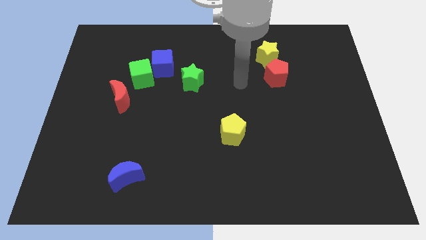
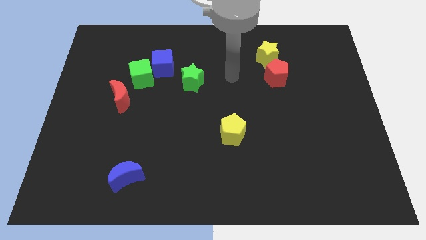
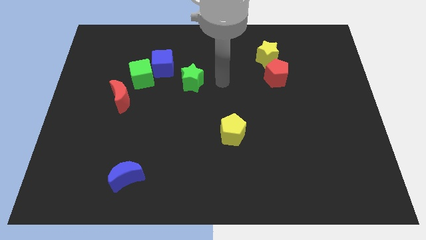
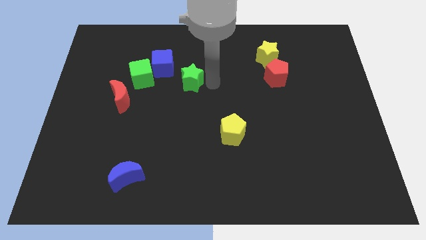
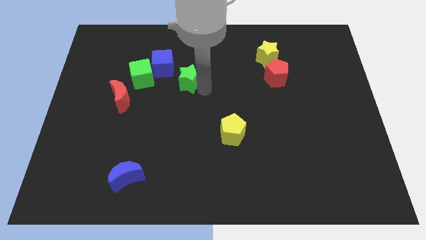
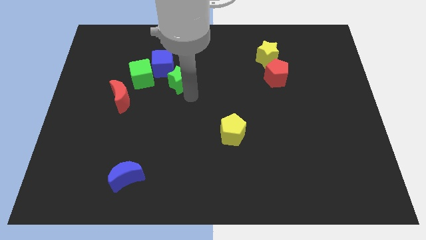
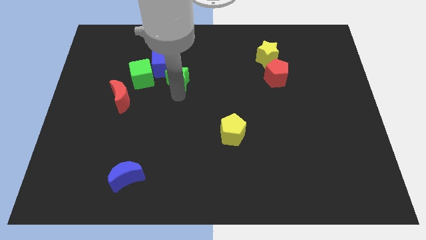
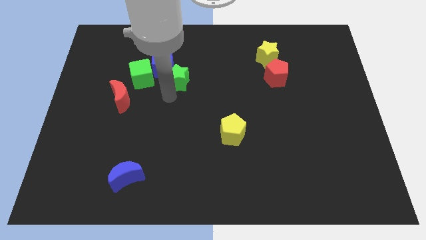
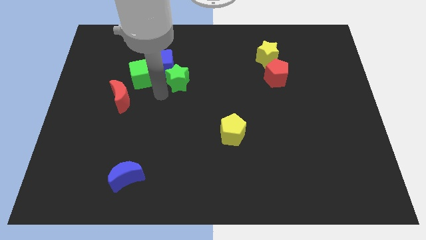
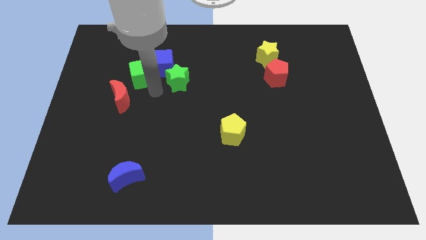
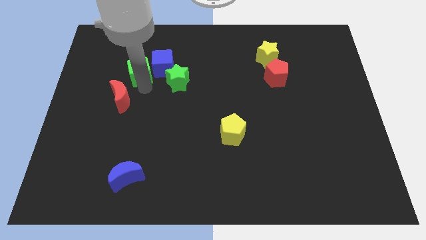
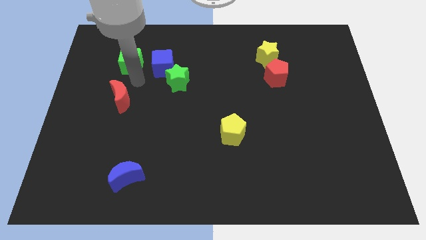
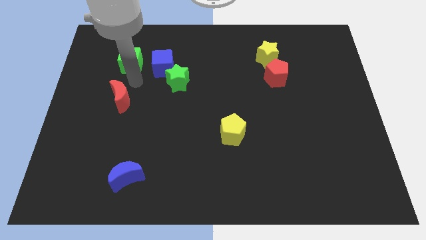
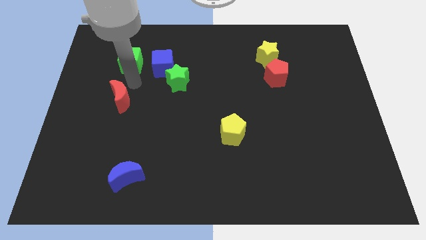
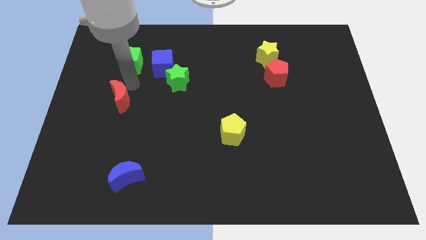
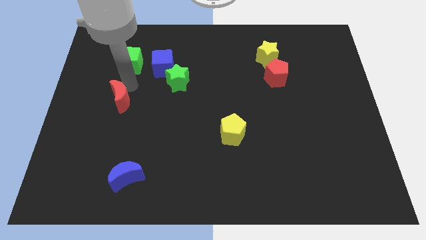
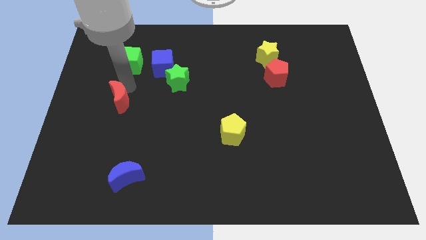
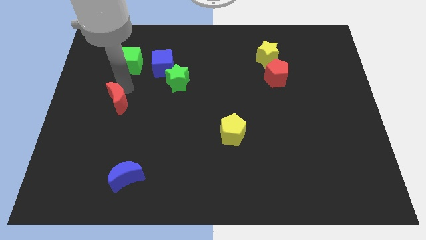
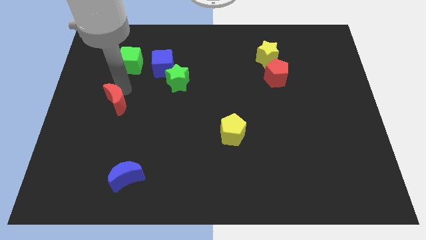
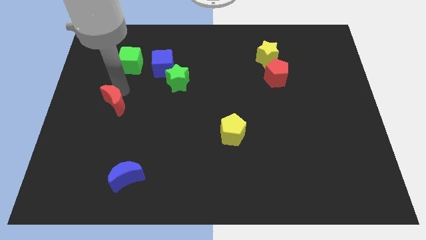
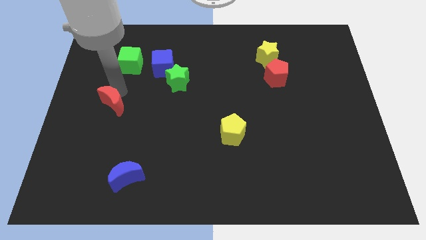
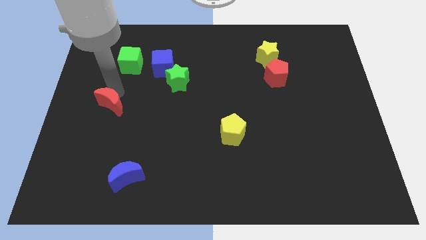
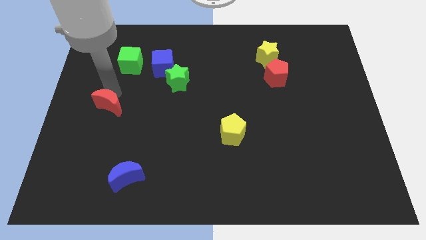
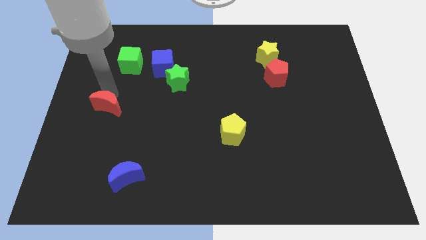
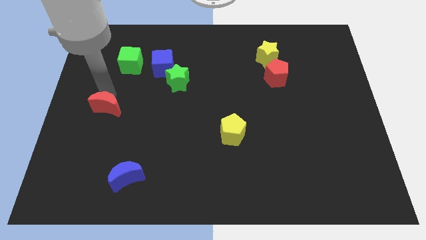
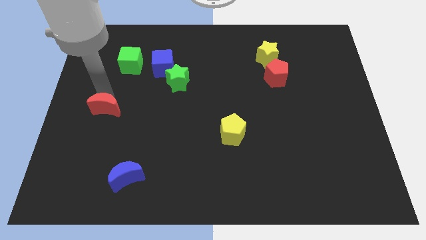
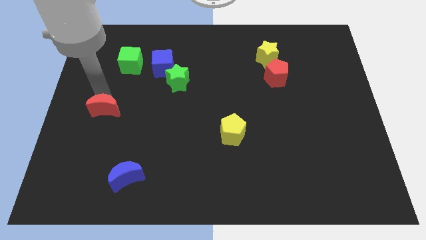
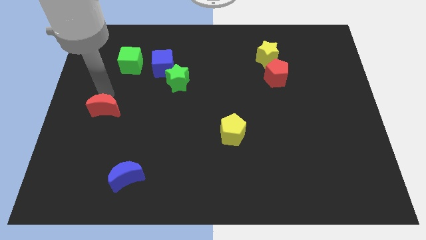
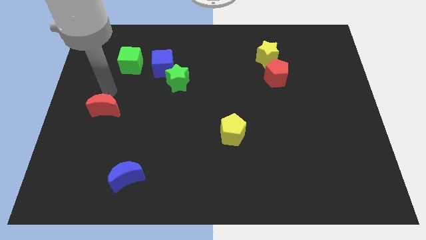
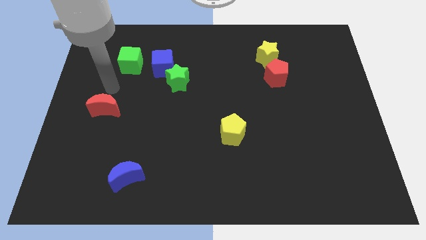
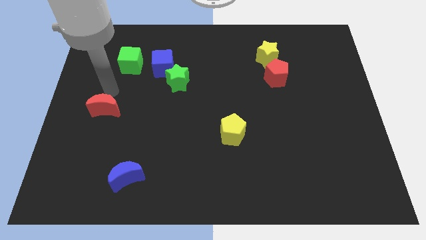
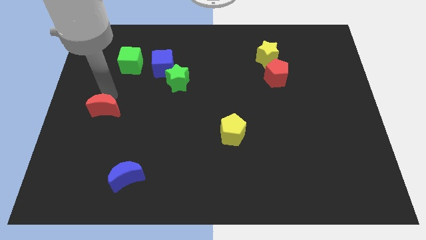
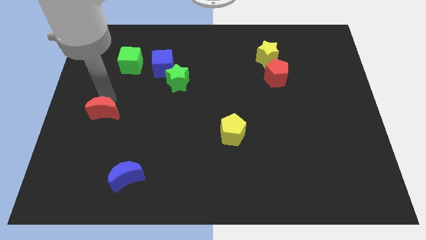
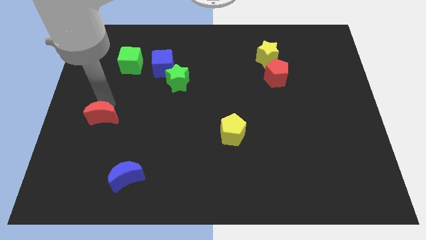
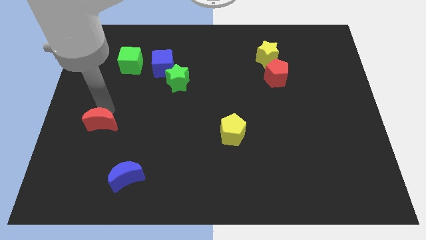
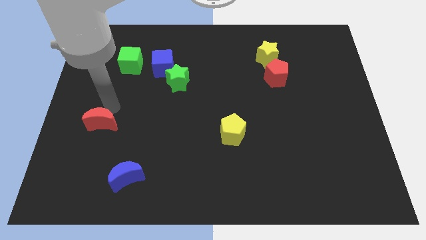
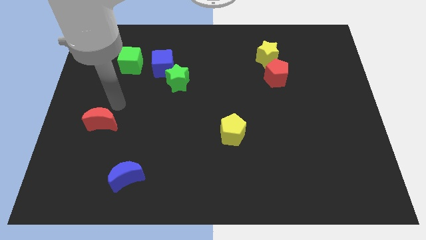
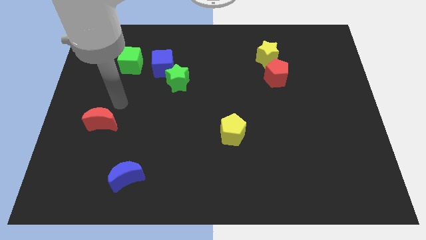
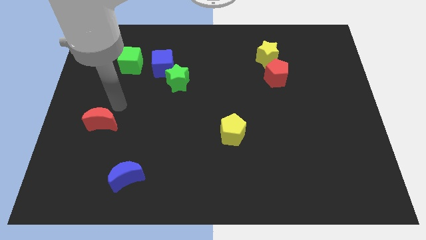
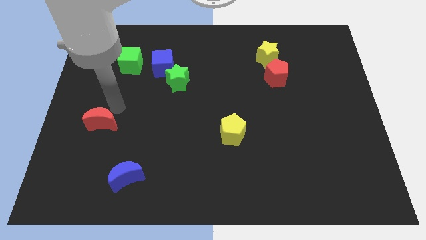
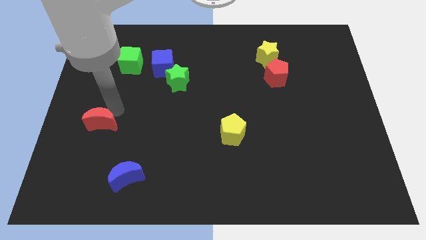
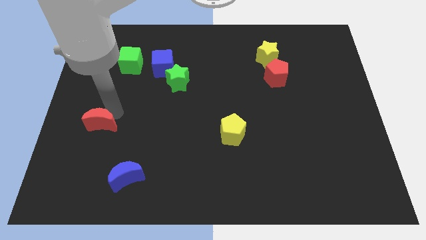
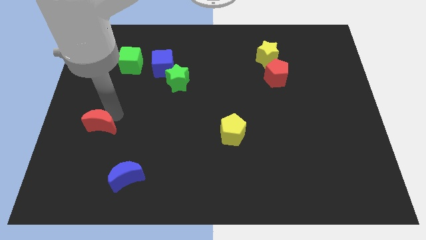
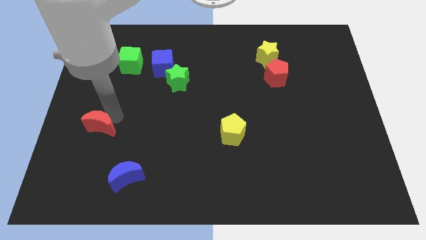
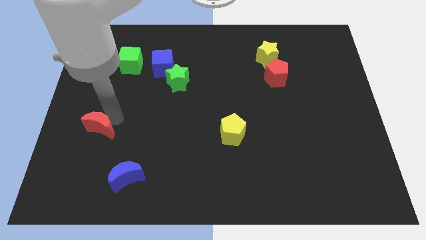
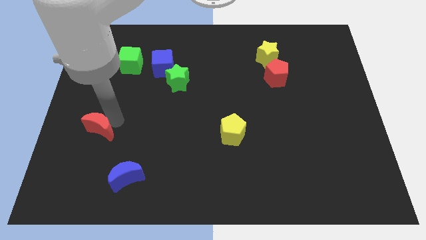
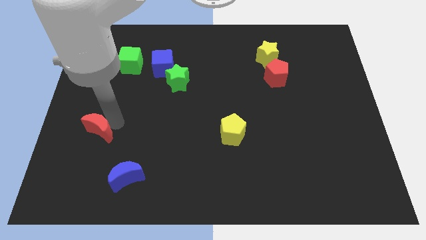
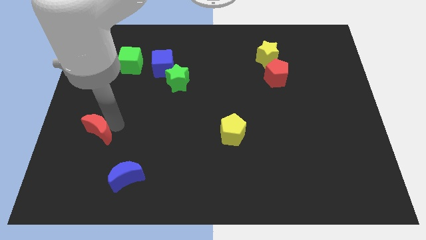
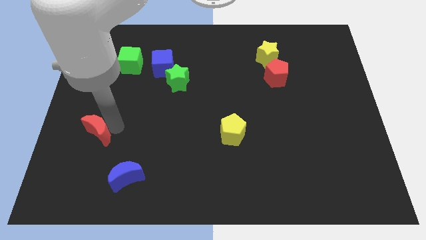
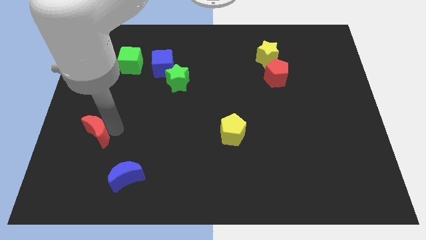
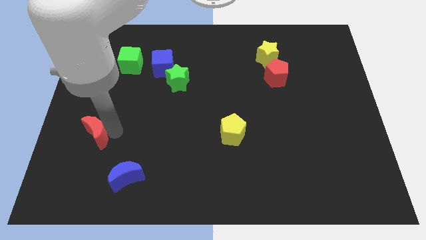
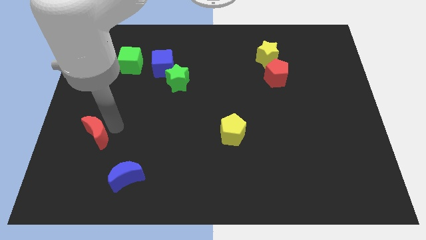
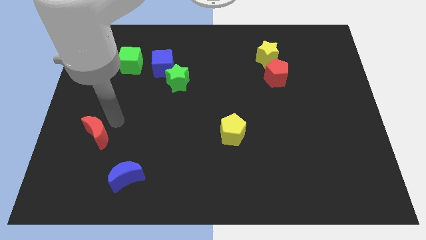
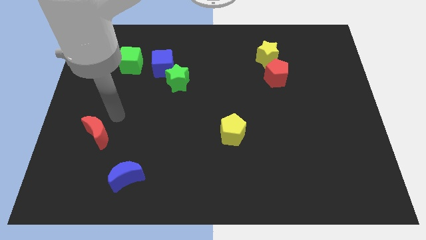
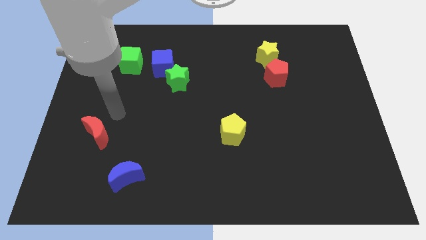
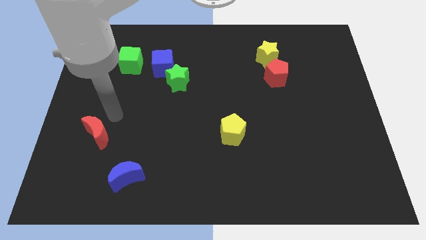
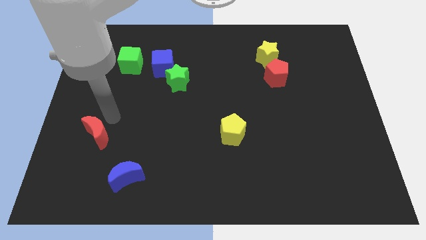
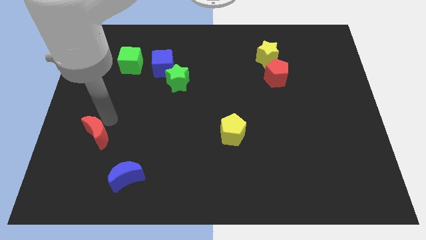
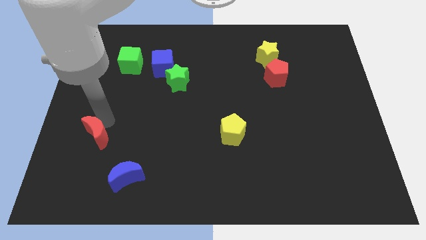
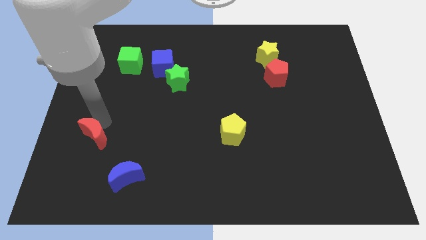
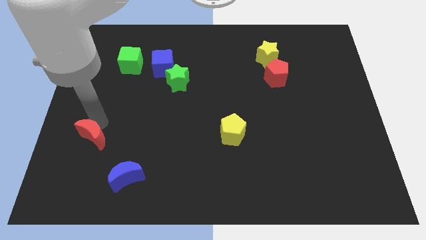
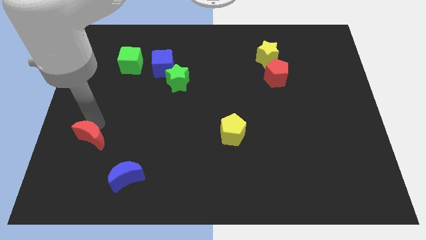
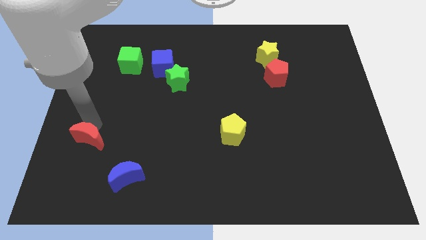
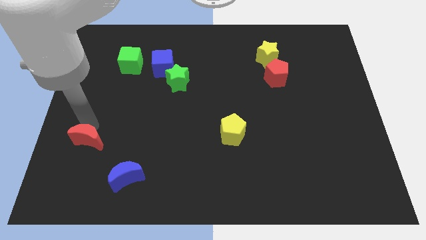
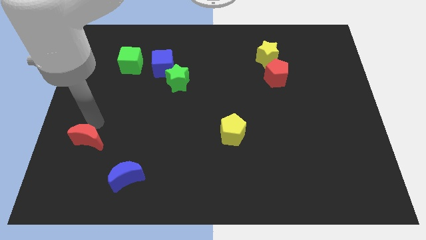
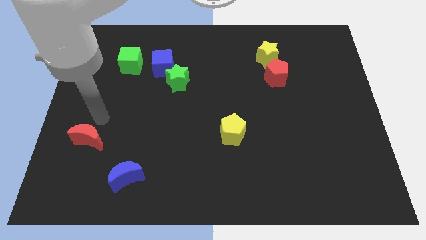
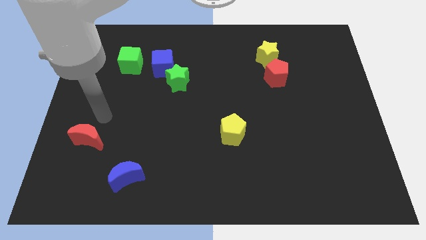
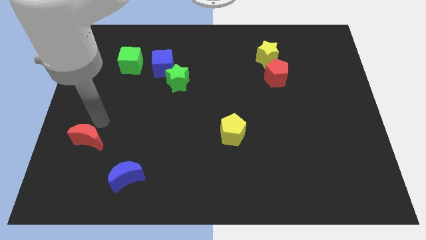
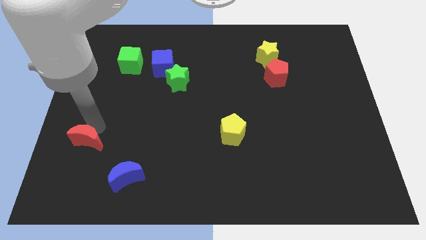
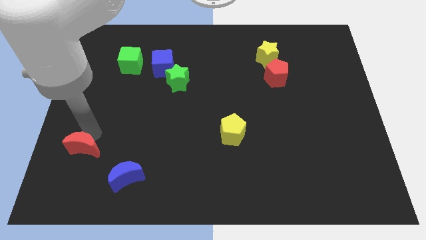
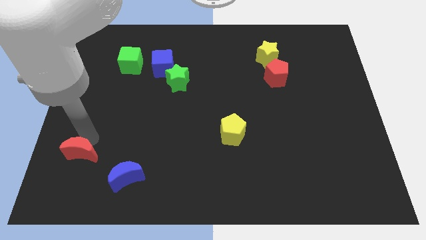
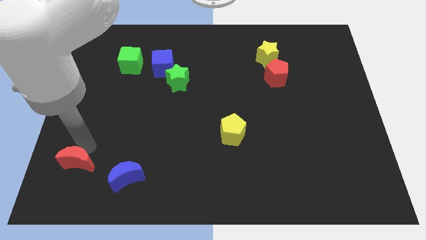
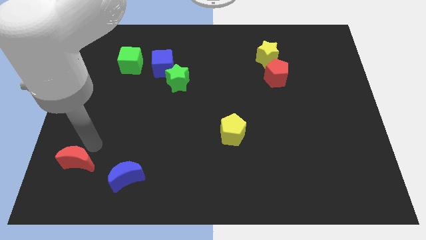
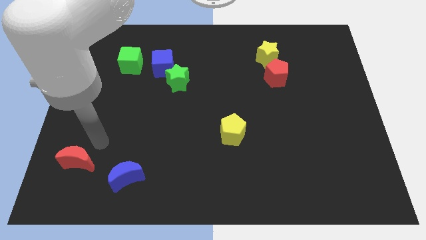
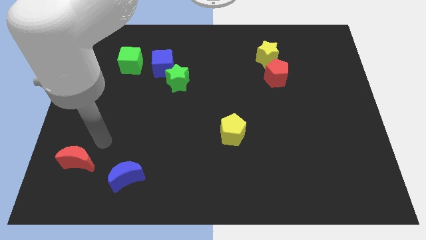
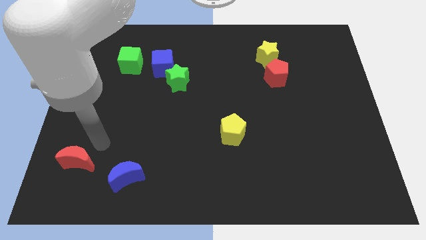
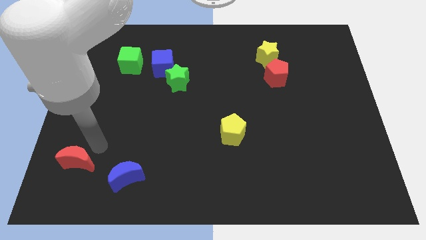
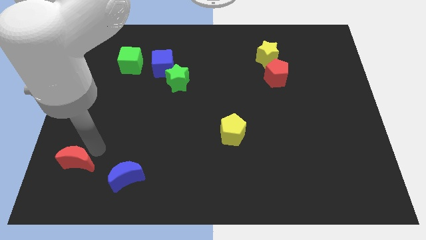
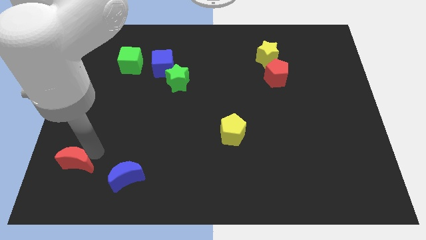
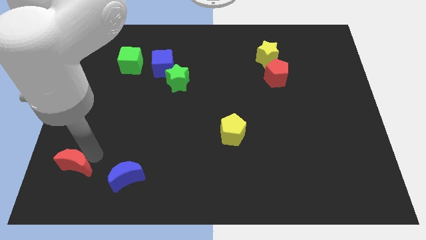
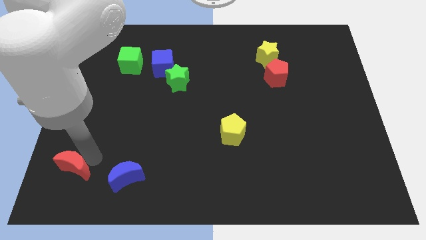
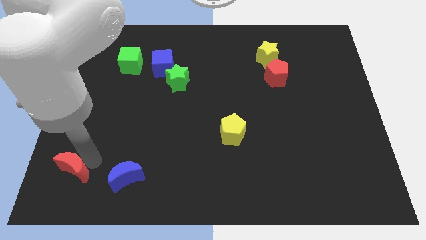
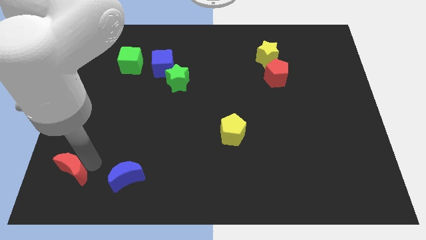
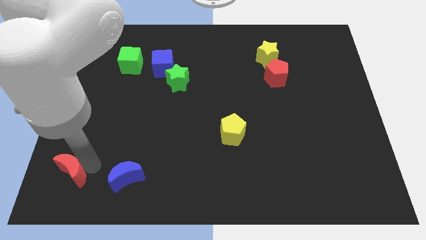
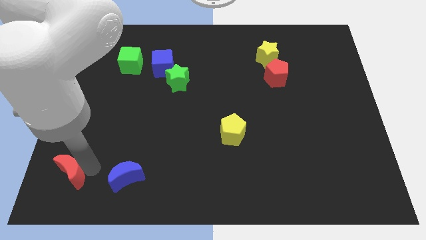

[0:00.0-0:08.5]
slide the red moon to the bottom left corner
